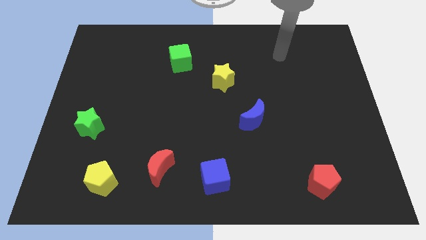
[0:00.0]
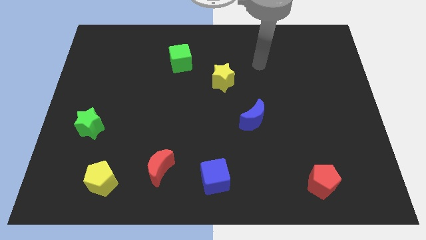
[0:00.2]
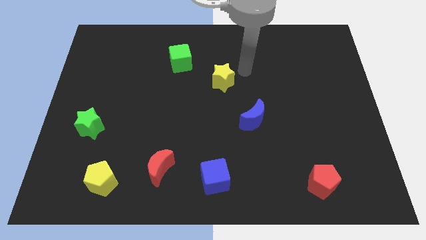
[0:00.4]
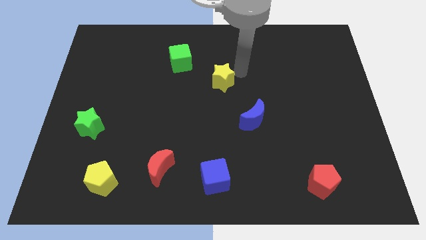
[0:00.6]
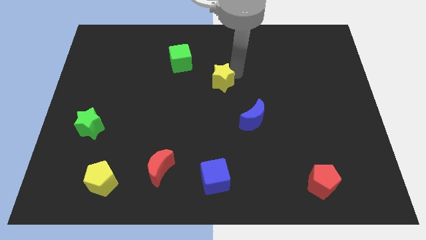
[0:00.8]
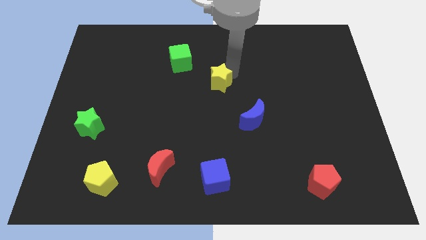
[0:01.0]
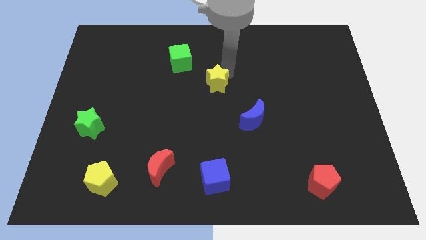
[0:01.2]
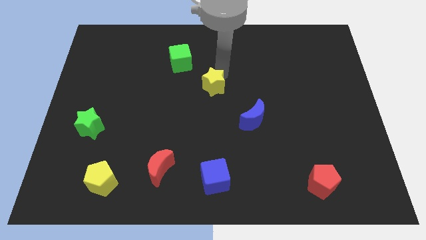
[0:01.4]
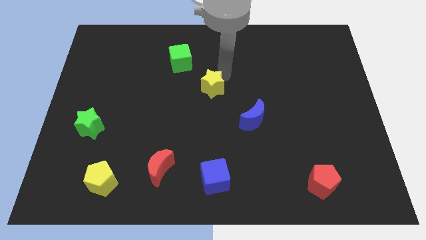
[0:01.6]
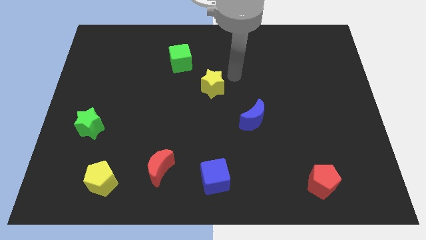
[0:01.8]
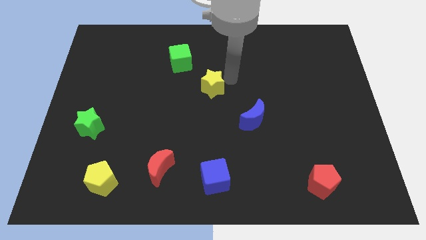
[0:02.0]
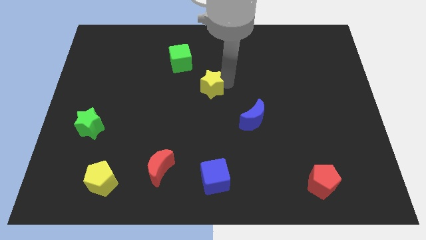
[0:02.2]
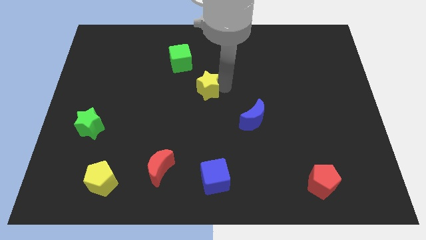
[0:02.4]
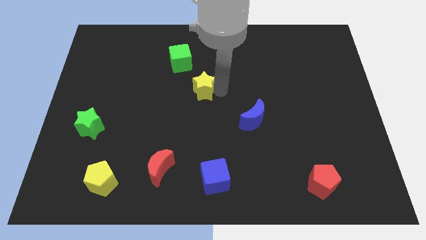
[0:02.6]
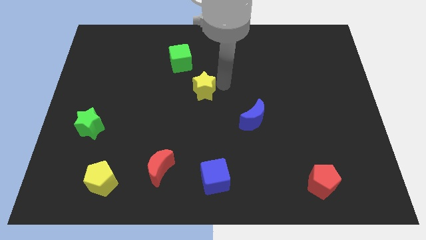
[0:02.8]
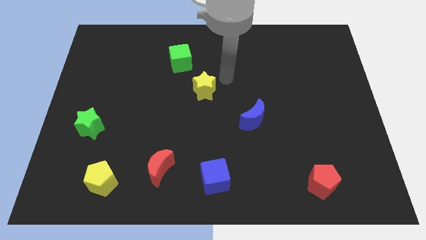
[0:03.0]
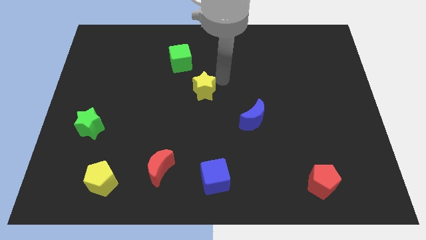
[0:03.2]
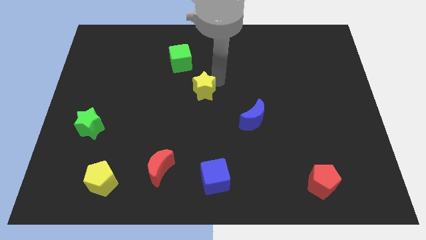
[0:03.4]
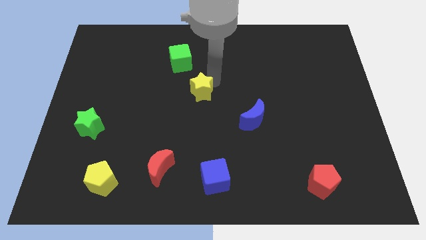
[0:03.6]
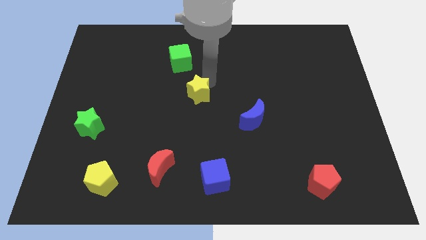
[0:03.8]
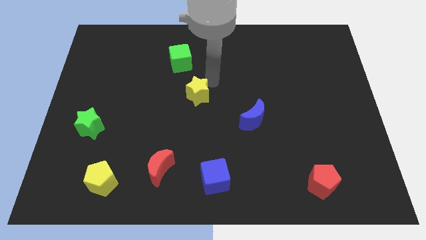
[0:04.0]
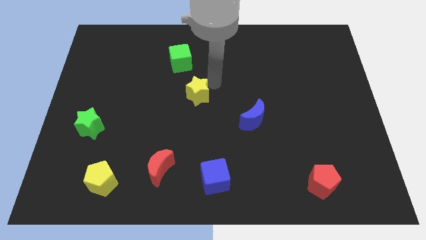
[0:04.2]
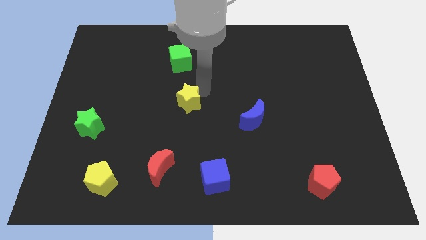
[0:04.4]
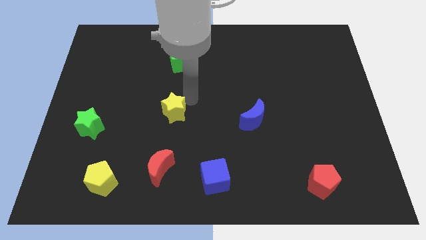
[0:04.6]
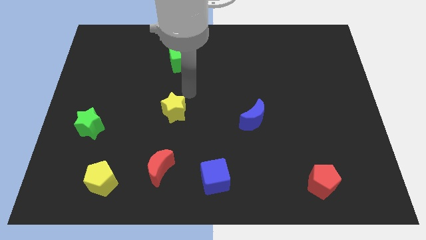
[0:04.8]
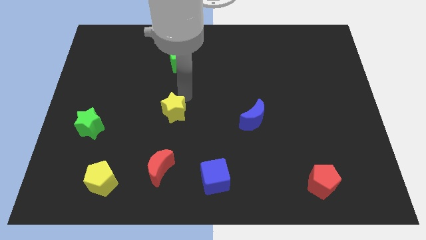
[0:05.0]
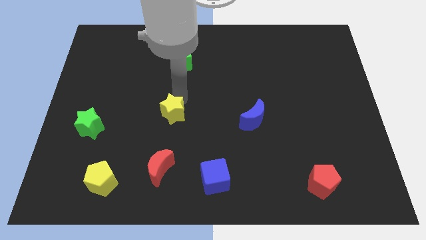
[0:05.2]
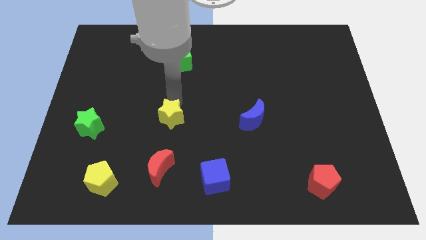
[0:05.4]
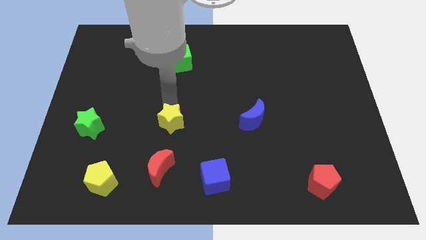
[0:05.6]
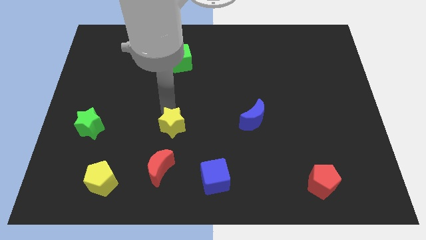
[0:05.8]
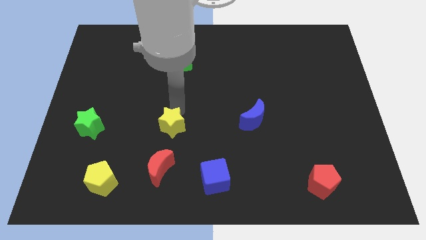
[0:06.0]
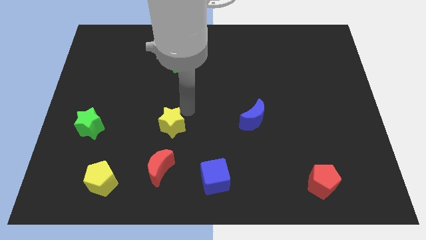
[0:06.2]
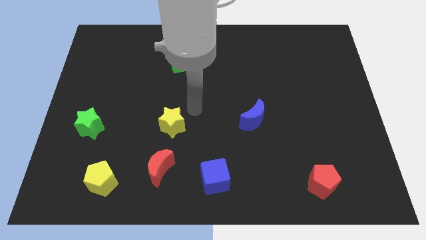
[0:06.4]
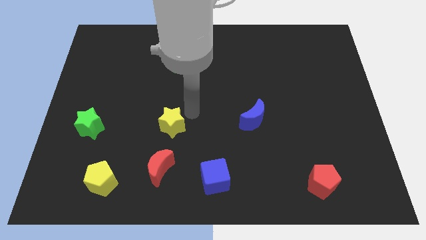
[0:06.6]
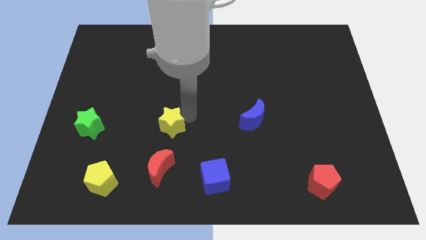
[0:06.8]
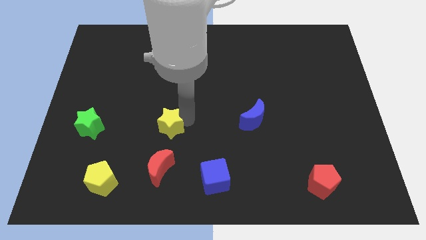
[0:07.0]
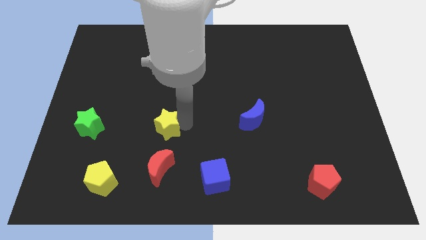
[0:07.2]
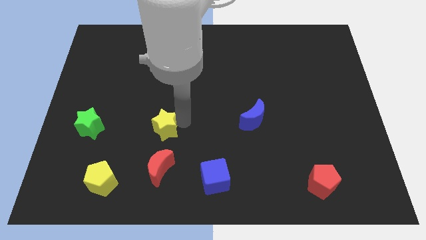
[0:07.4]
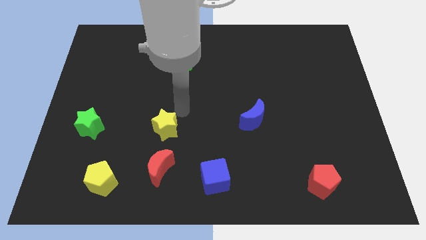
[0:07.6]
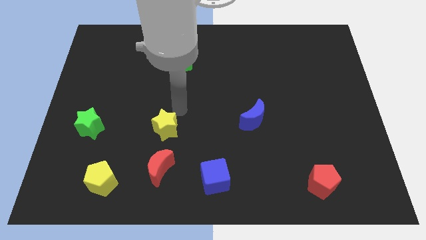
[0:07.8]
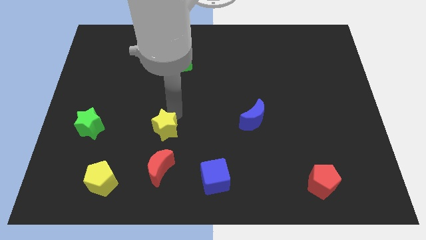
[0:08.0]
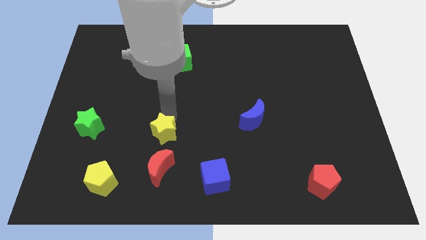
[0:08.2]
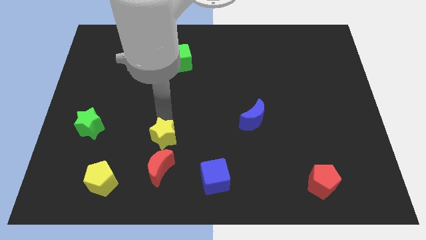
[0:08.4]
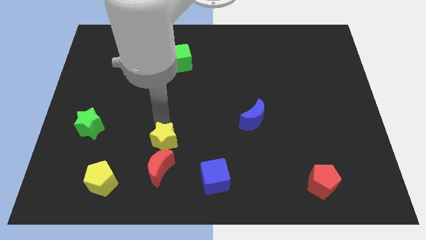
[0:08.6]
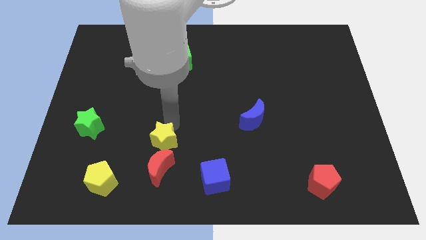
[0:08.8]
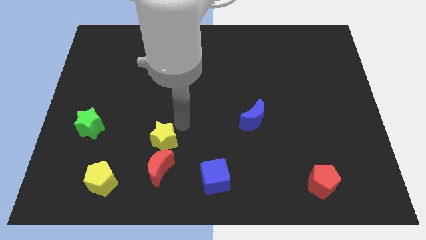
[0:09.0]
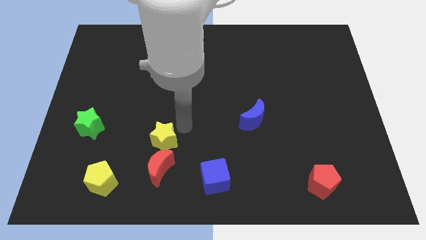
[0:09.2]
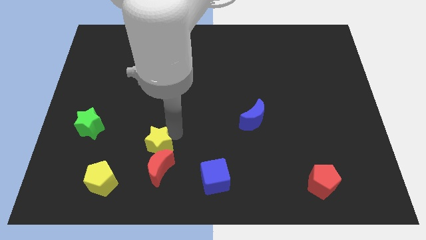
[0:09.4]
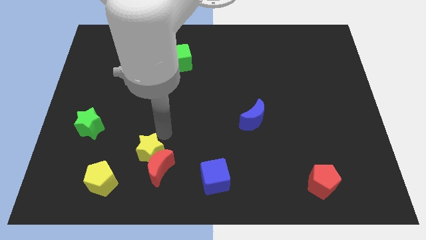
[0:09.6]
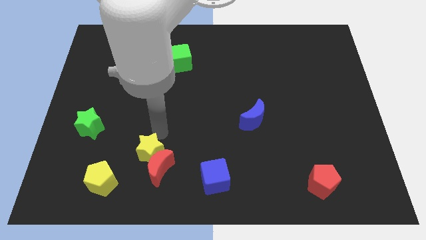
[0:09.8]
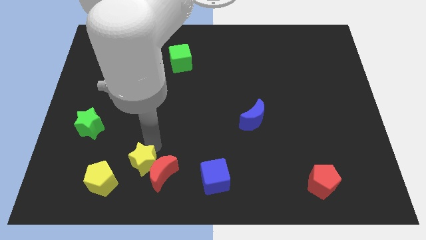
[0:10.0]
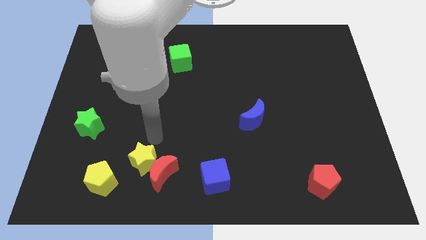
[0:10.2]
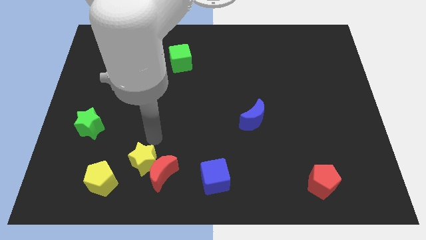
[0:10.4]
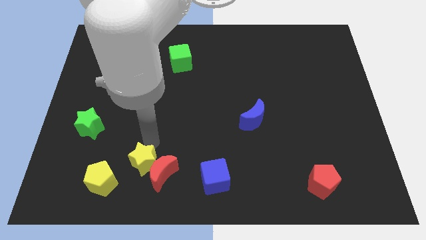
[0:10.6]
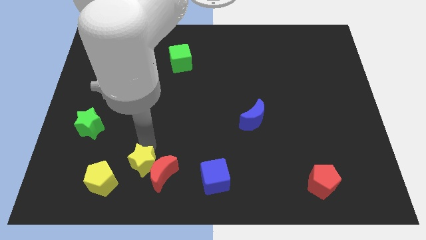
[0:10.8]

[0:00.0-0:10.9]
slide the yellow star to the left of the blue cube
